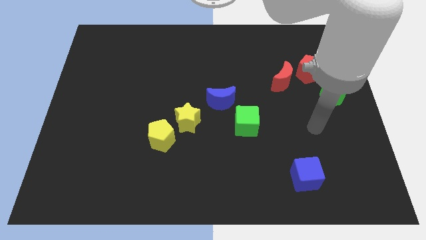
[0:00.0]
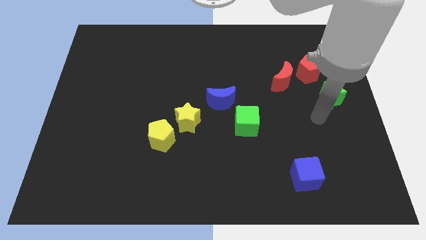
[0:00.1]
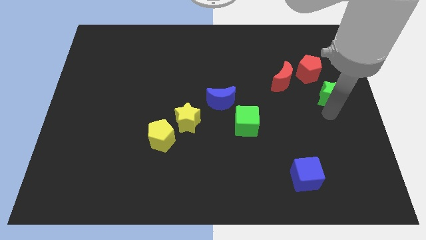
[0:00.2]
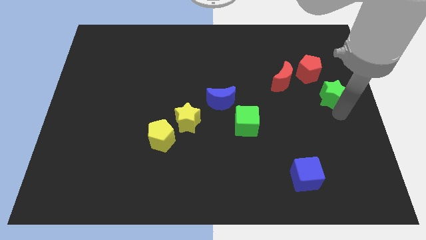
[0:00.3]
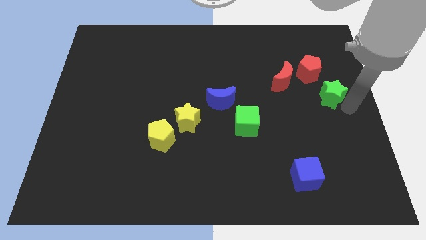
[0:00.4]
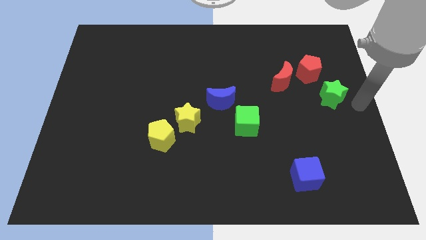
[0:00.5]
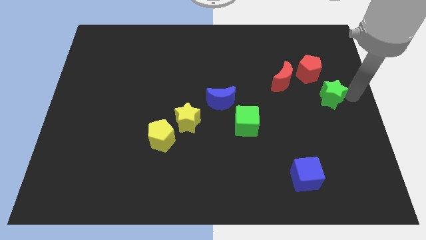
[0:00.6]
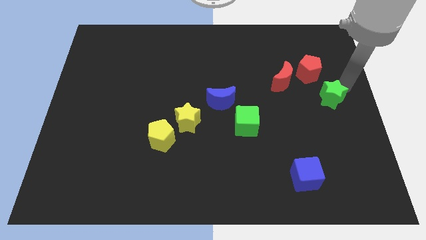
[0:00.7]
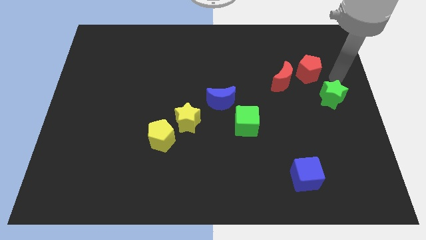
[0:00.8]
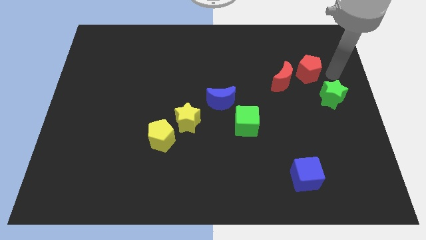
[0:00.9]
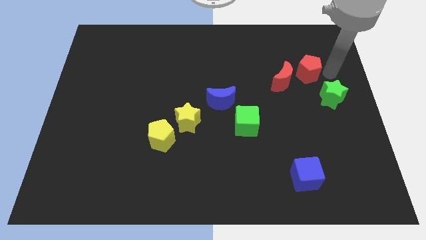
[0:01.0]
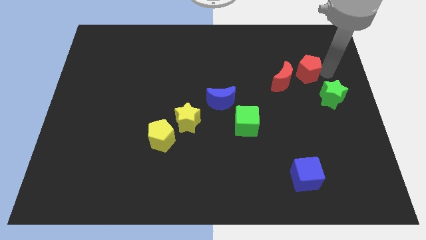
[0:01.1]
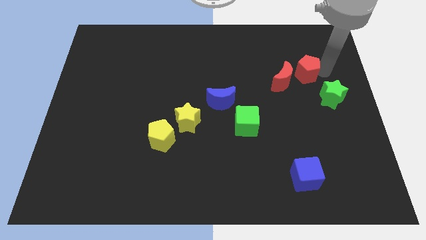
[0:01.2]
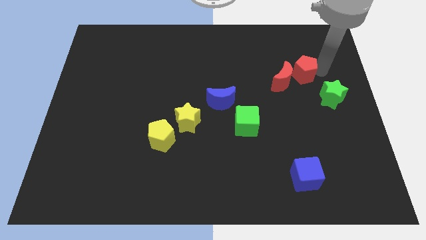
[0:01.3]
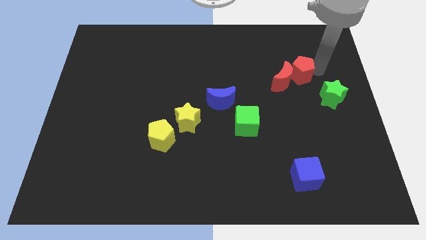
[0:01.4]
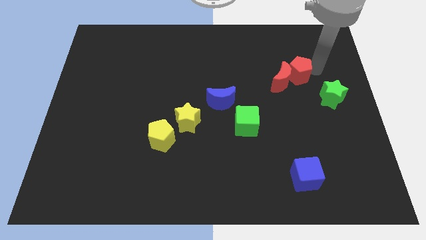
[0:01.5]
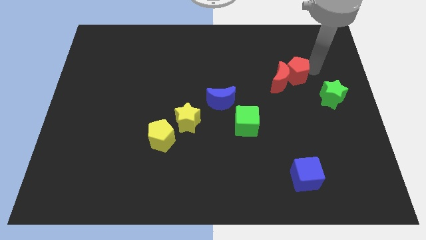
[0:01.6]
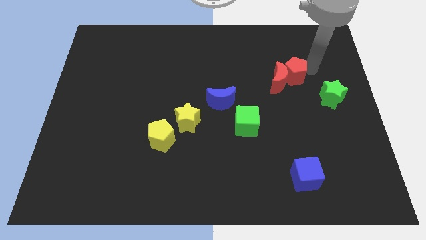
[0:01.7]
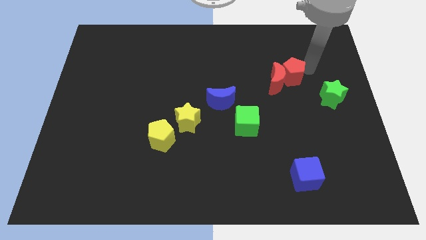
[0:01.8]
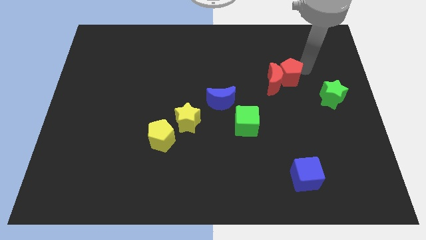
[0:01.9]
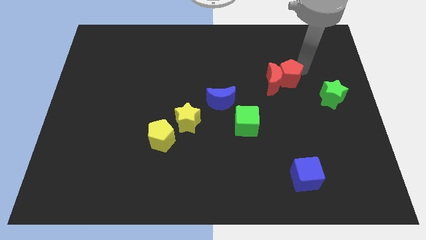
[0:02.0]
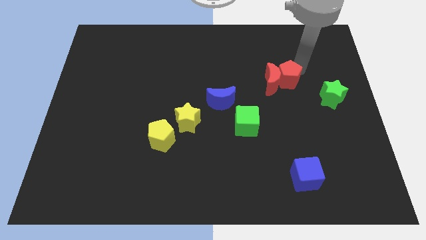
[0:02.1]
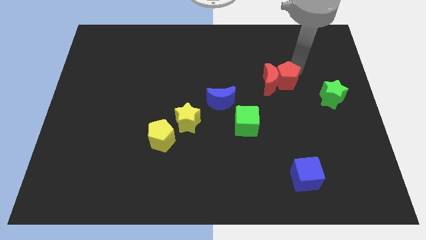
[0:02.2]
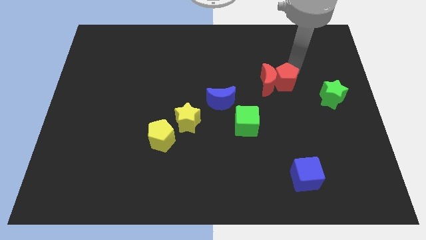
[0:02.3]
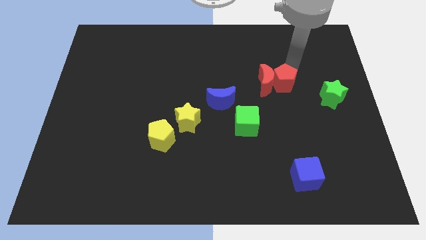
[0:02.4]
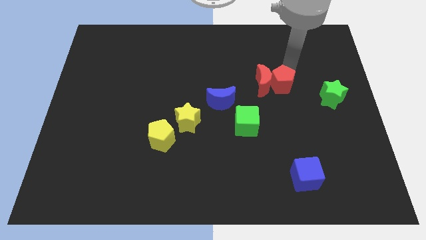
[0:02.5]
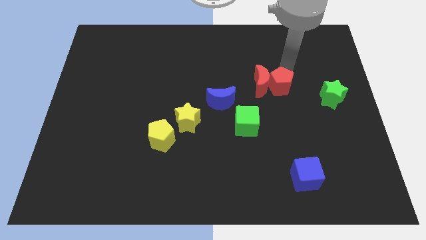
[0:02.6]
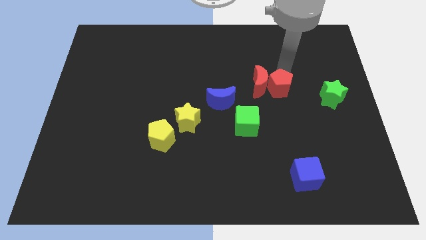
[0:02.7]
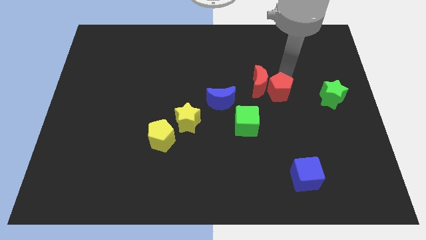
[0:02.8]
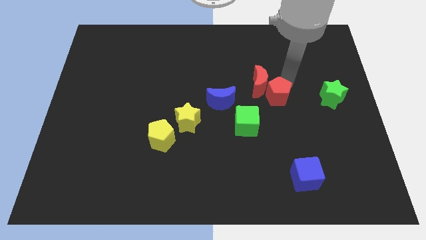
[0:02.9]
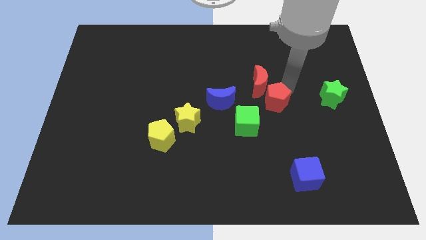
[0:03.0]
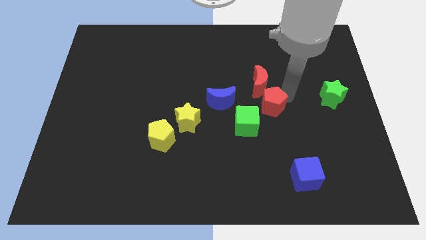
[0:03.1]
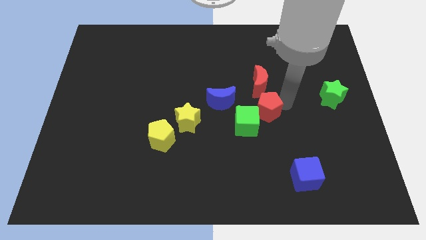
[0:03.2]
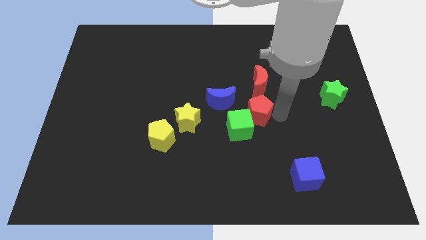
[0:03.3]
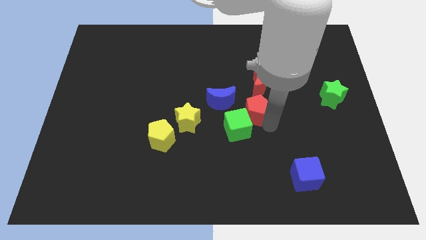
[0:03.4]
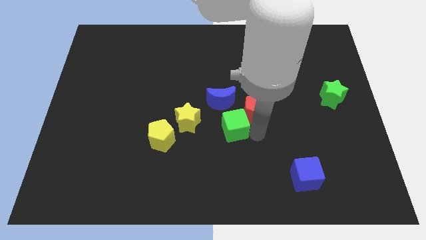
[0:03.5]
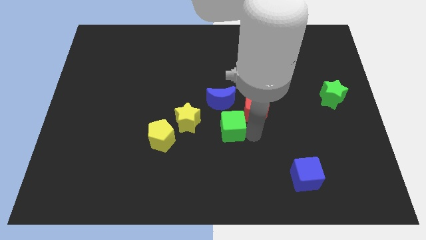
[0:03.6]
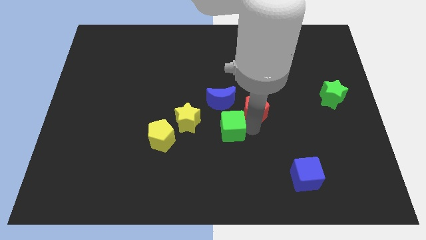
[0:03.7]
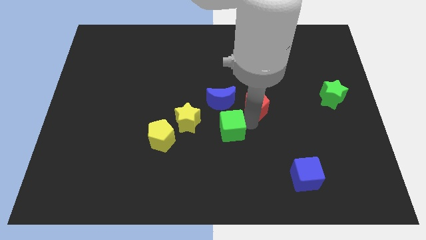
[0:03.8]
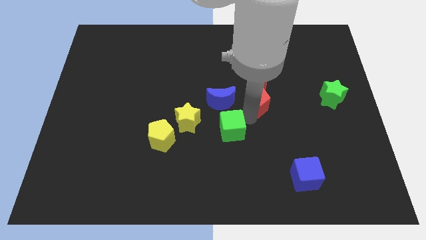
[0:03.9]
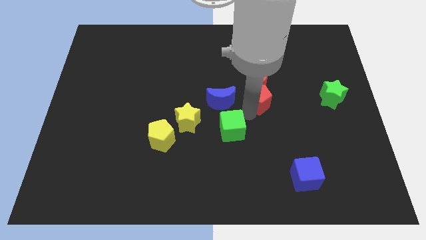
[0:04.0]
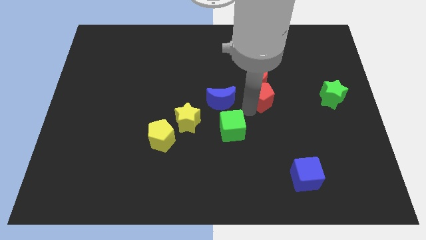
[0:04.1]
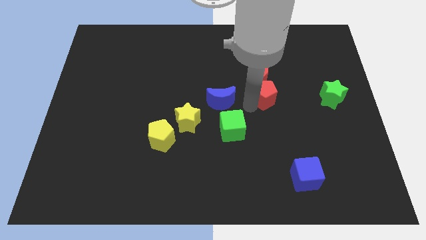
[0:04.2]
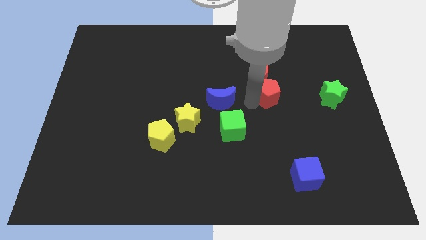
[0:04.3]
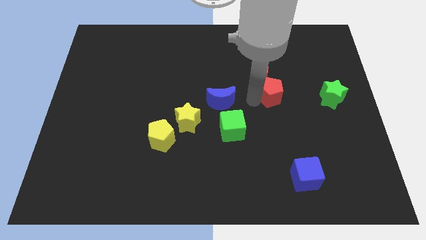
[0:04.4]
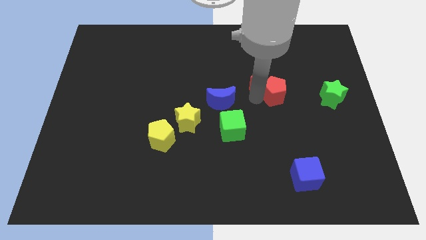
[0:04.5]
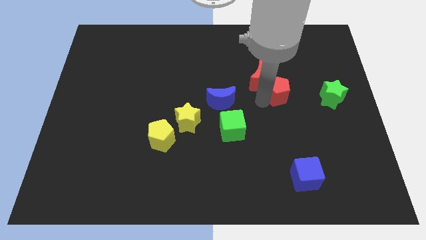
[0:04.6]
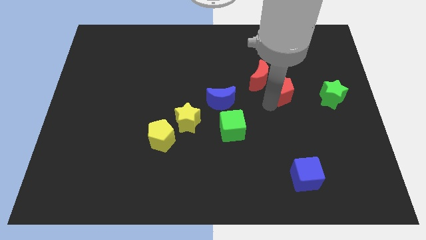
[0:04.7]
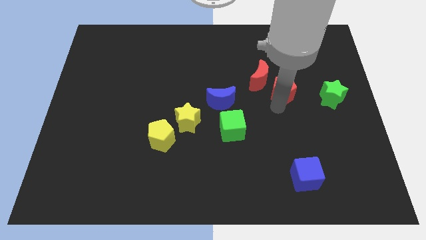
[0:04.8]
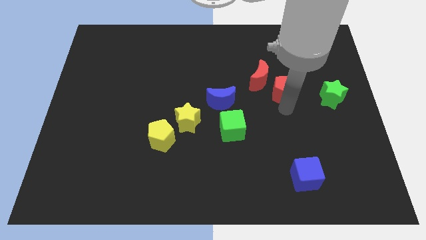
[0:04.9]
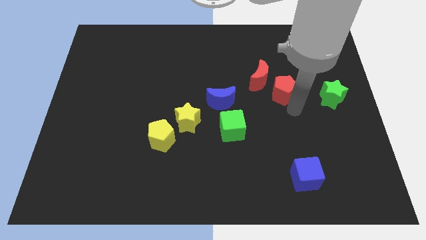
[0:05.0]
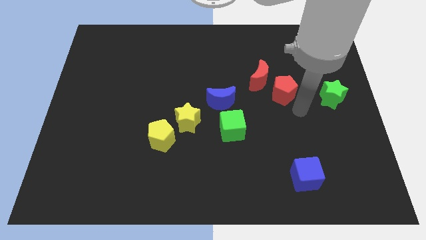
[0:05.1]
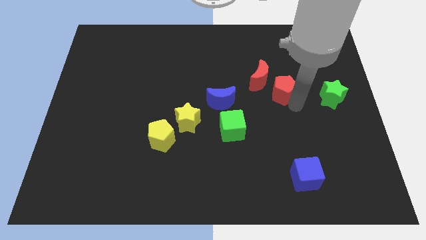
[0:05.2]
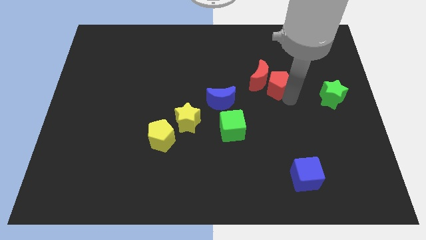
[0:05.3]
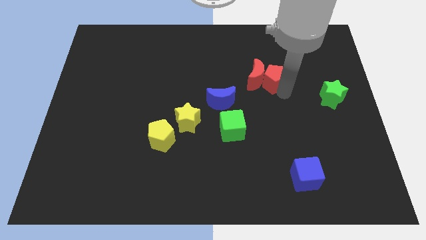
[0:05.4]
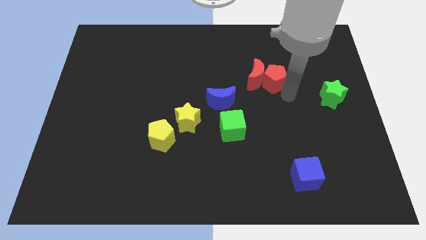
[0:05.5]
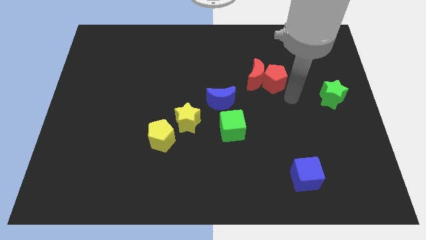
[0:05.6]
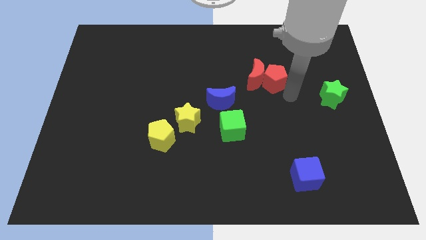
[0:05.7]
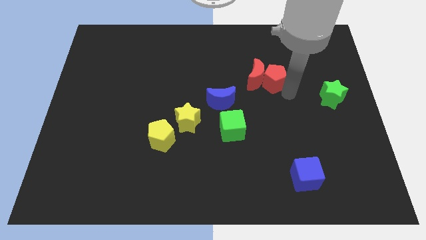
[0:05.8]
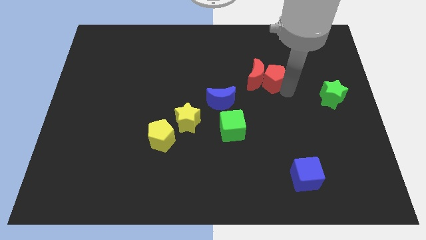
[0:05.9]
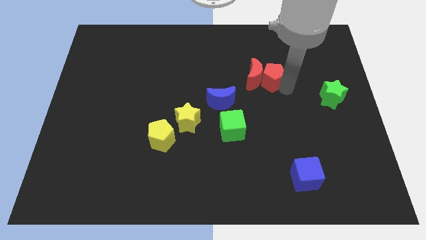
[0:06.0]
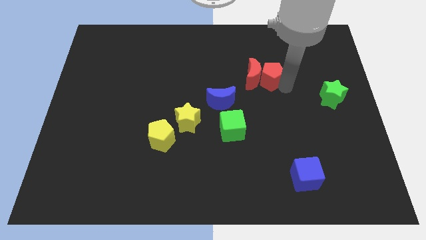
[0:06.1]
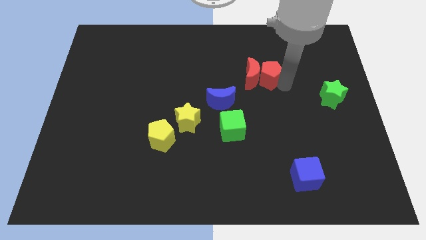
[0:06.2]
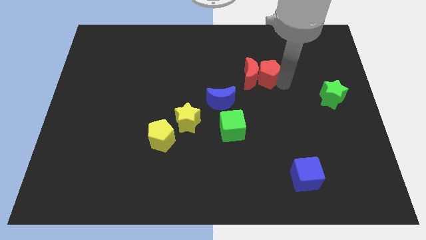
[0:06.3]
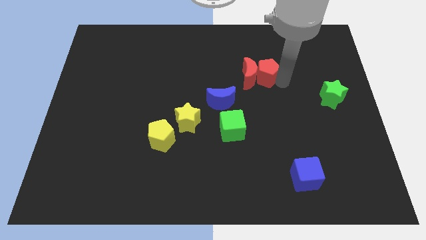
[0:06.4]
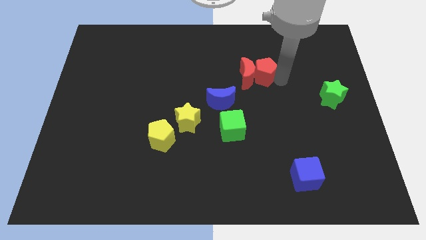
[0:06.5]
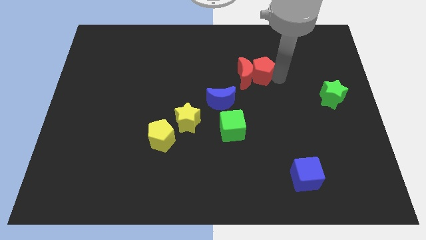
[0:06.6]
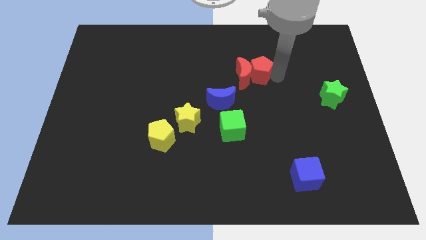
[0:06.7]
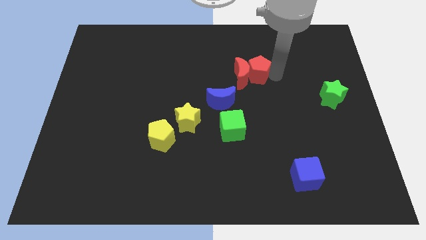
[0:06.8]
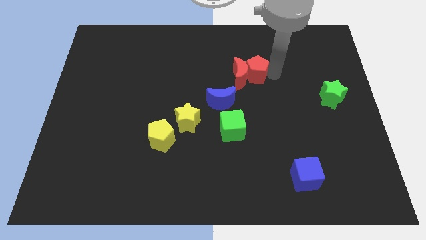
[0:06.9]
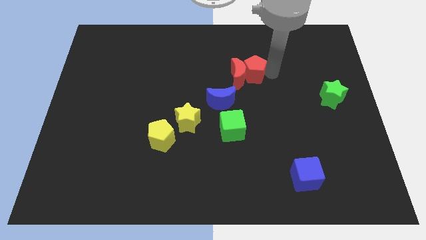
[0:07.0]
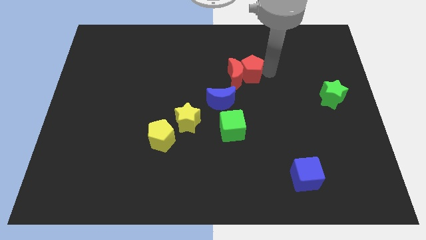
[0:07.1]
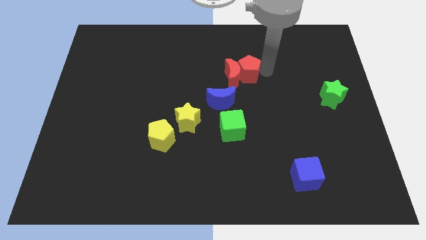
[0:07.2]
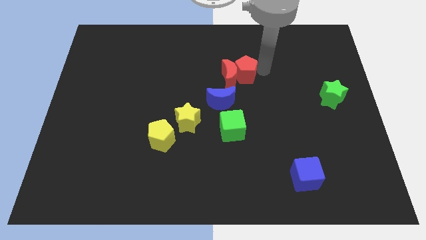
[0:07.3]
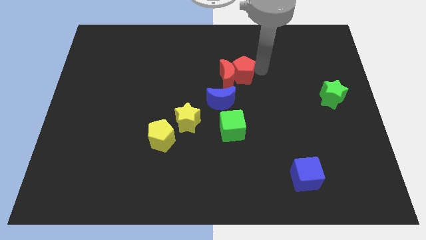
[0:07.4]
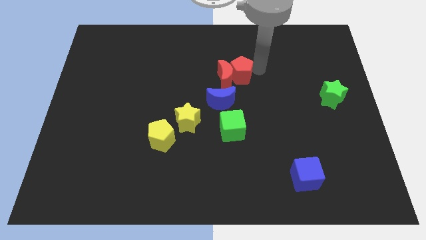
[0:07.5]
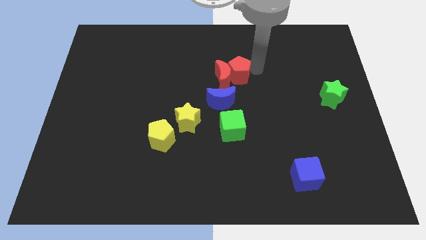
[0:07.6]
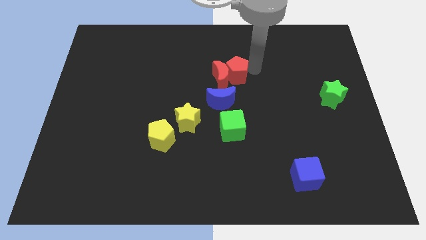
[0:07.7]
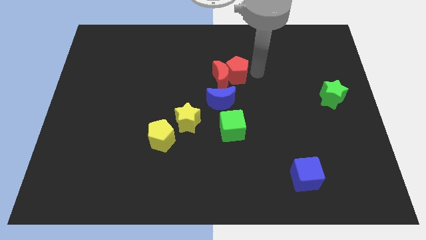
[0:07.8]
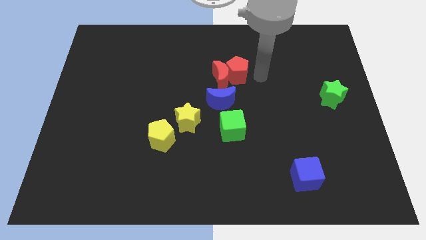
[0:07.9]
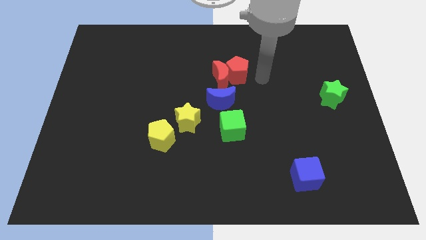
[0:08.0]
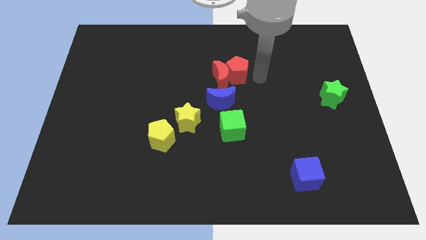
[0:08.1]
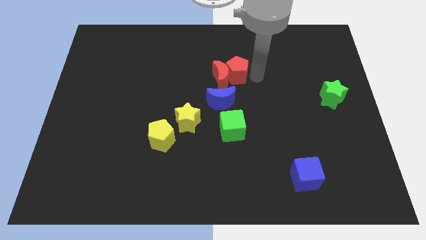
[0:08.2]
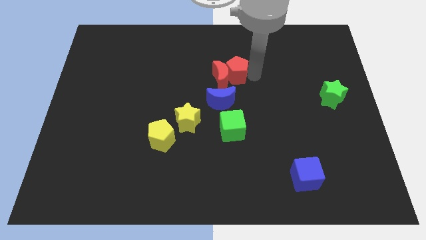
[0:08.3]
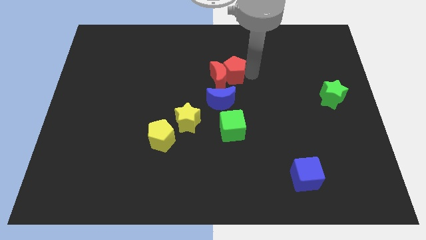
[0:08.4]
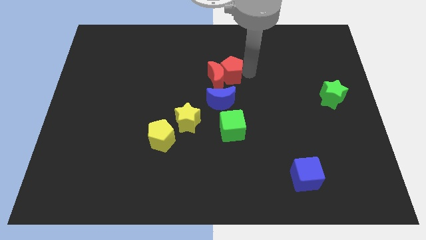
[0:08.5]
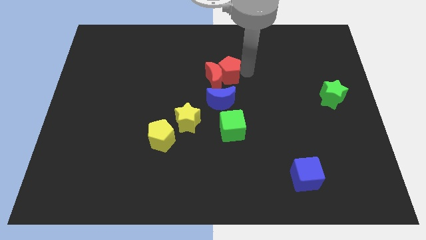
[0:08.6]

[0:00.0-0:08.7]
slide the red pentagon to the left
